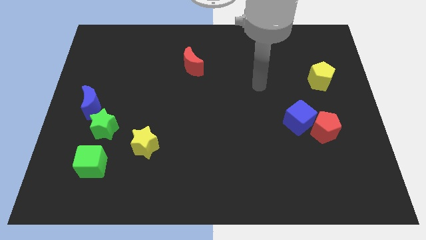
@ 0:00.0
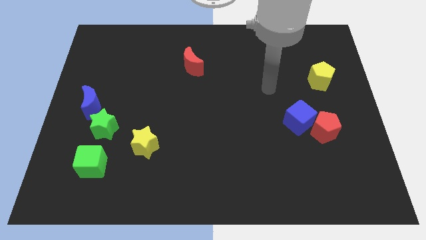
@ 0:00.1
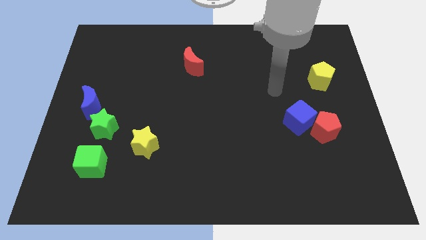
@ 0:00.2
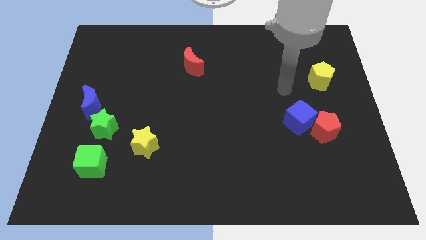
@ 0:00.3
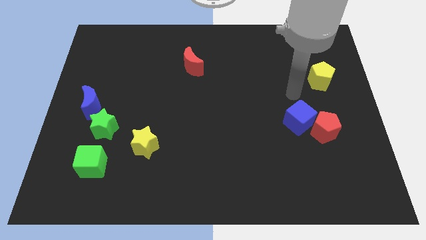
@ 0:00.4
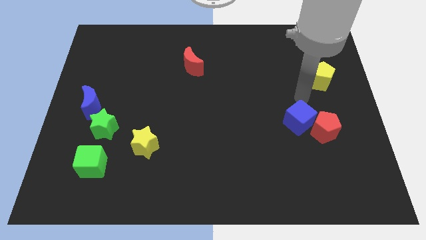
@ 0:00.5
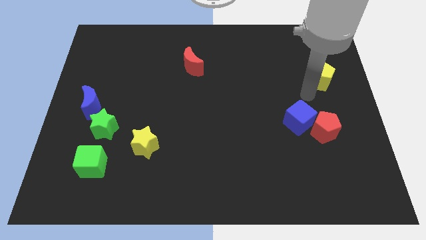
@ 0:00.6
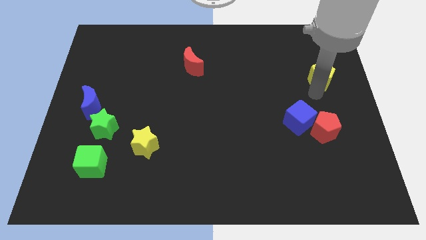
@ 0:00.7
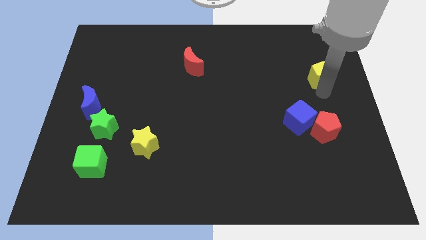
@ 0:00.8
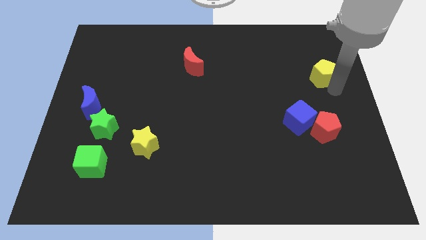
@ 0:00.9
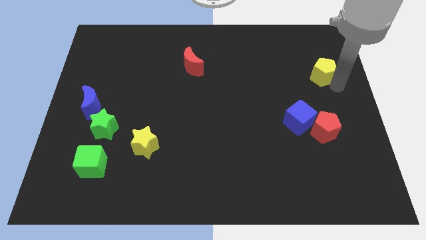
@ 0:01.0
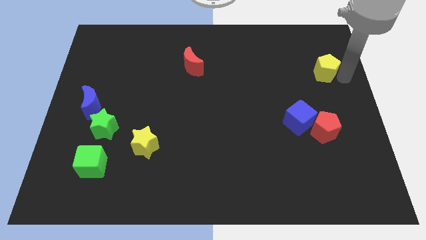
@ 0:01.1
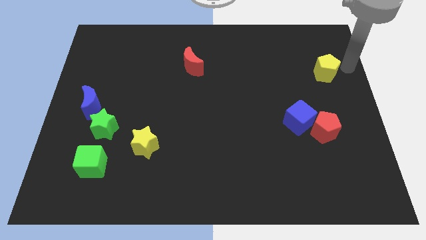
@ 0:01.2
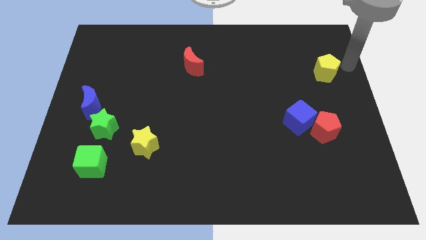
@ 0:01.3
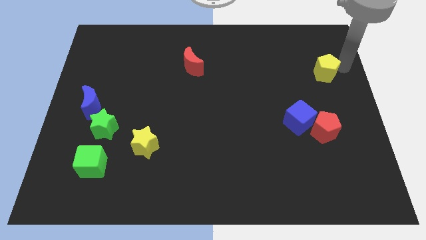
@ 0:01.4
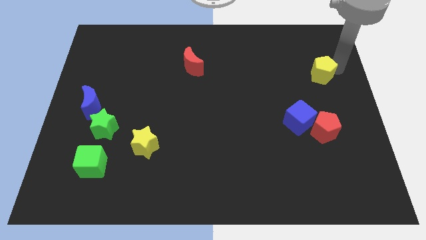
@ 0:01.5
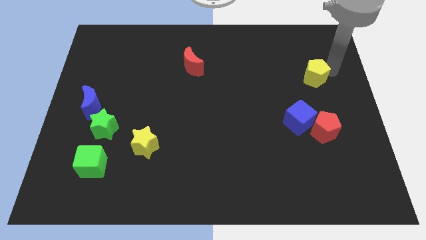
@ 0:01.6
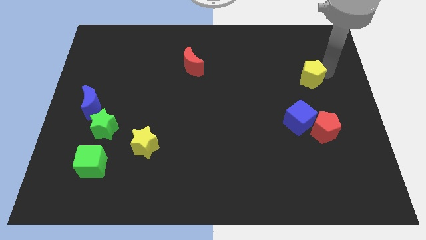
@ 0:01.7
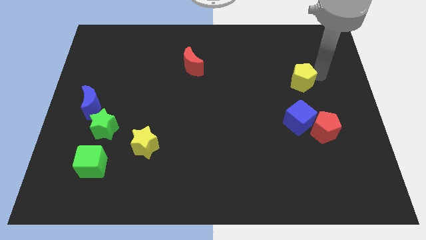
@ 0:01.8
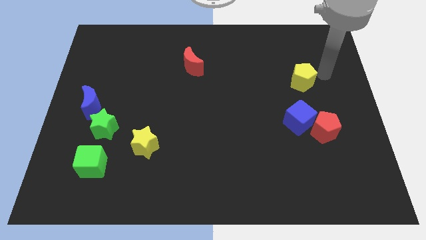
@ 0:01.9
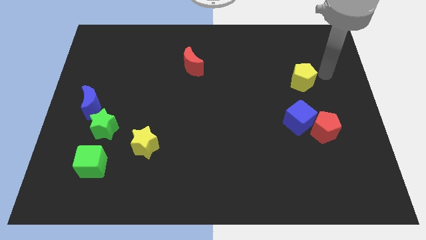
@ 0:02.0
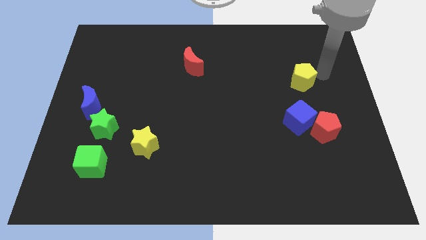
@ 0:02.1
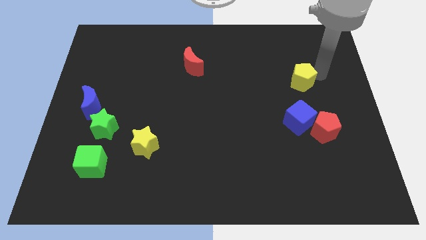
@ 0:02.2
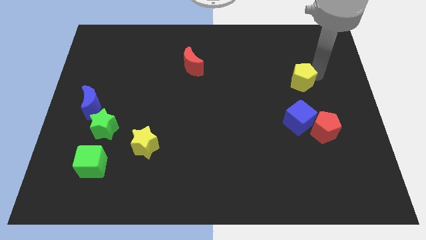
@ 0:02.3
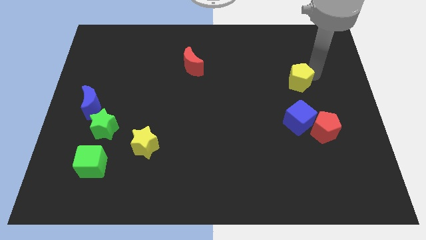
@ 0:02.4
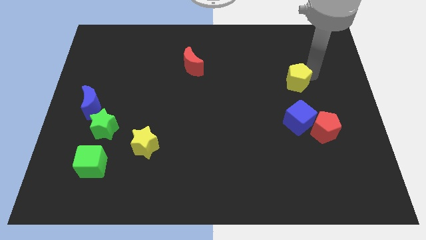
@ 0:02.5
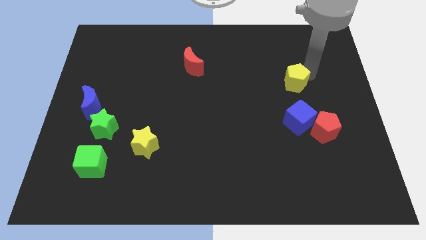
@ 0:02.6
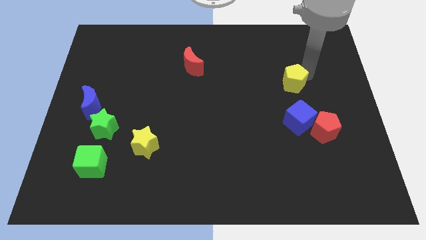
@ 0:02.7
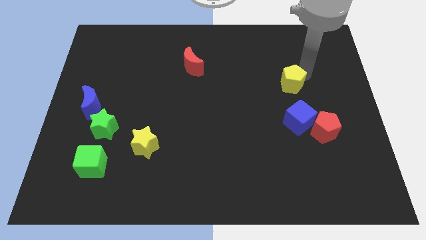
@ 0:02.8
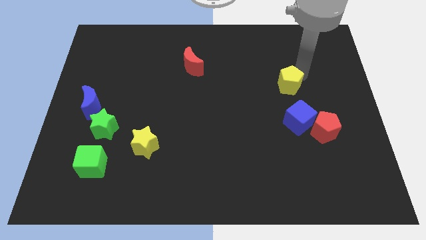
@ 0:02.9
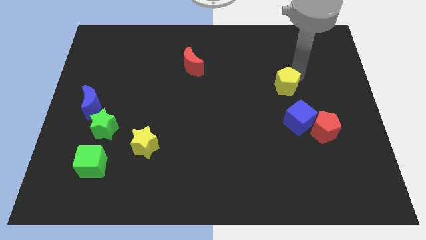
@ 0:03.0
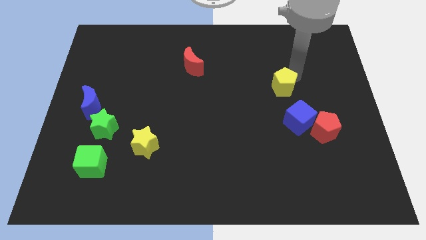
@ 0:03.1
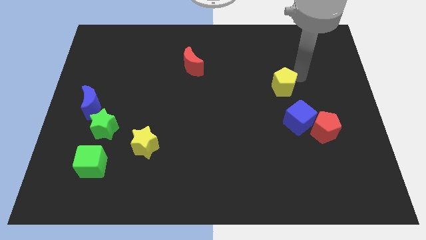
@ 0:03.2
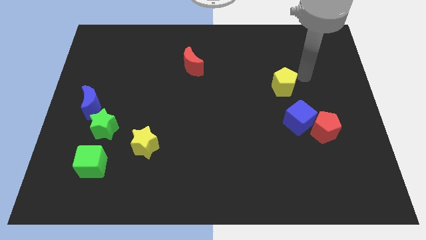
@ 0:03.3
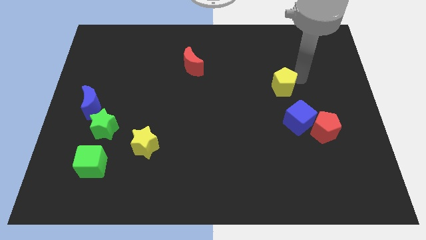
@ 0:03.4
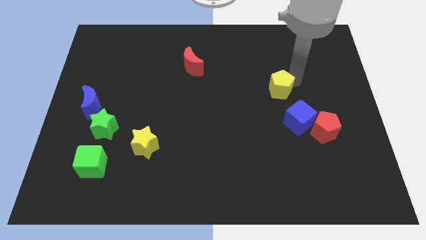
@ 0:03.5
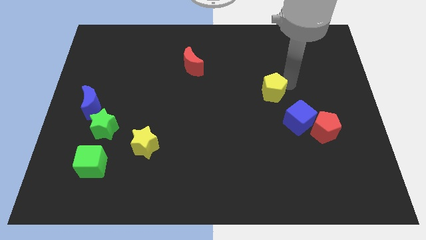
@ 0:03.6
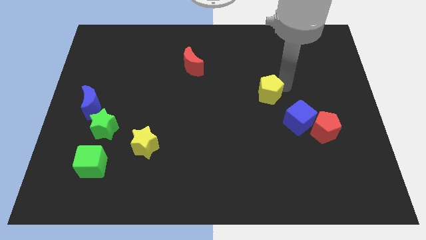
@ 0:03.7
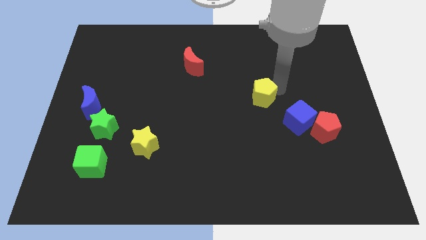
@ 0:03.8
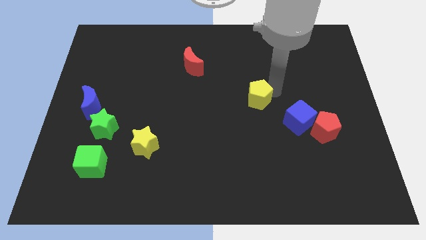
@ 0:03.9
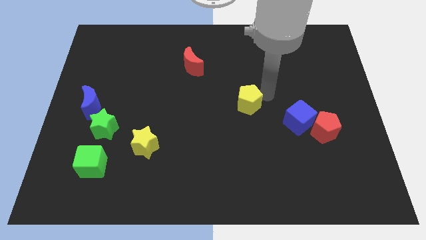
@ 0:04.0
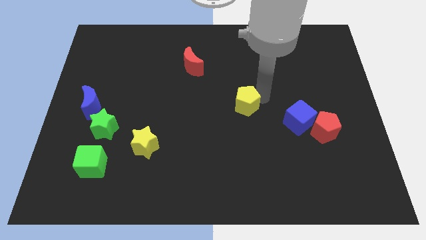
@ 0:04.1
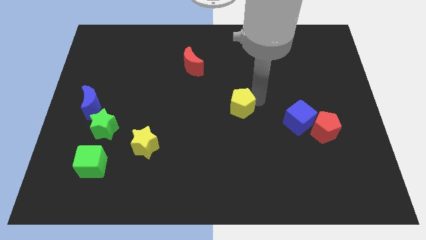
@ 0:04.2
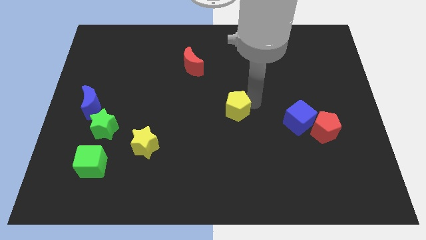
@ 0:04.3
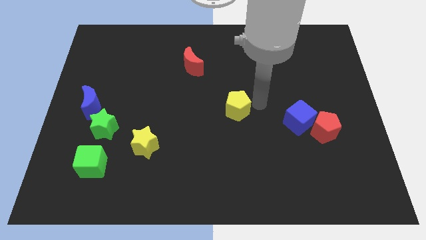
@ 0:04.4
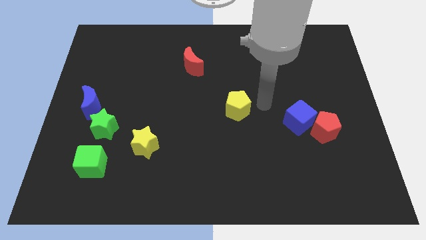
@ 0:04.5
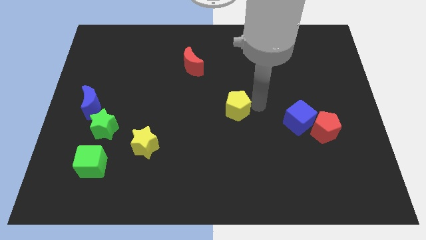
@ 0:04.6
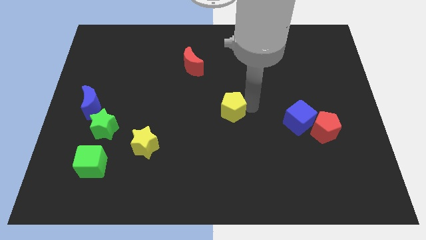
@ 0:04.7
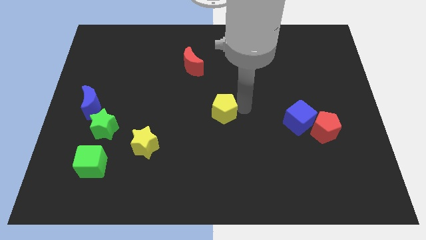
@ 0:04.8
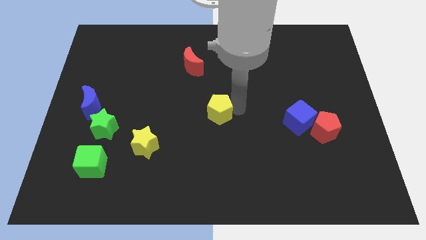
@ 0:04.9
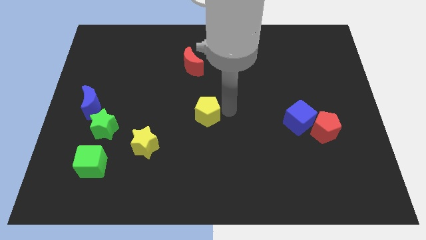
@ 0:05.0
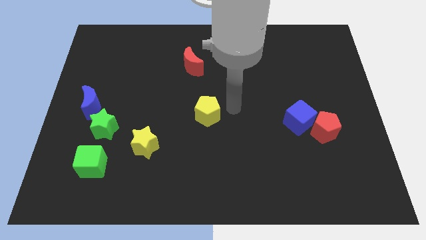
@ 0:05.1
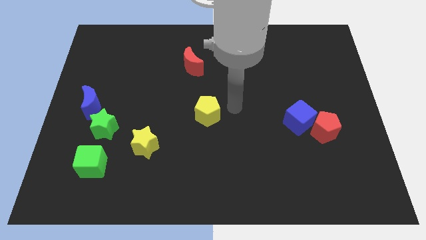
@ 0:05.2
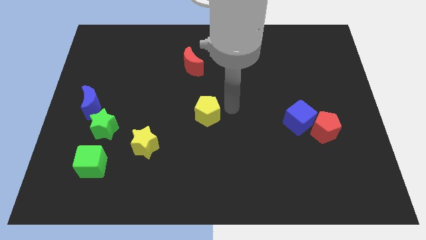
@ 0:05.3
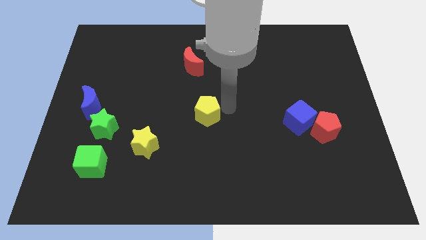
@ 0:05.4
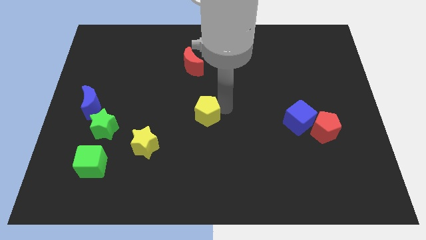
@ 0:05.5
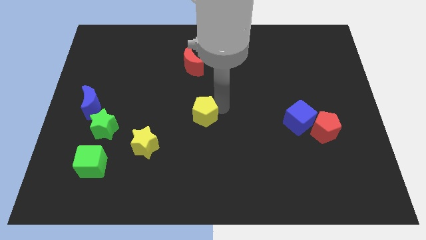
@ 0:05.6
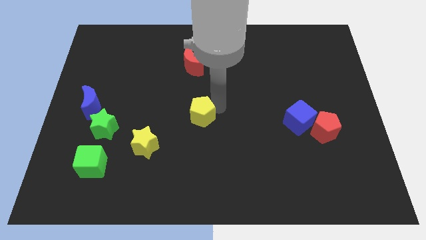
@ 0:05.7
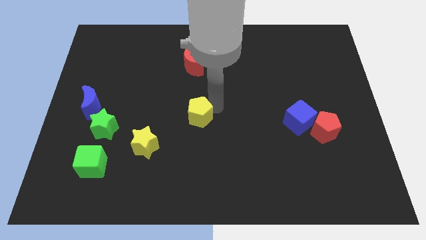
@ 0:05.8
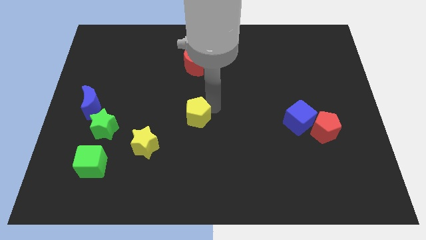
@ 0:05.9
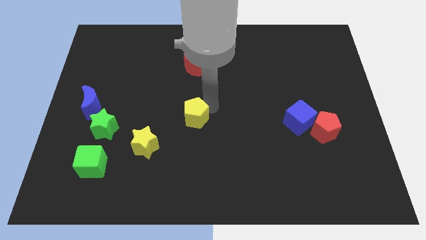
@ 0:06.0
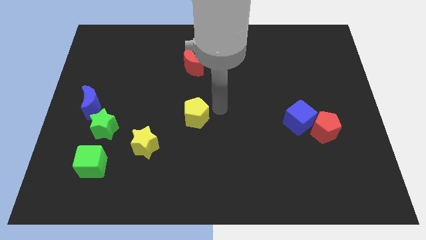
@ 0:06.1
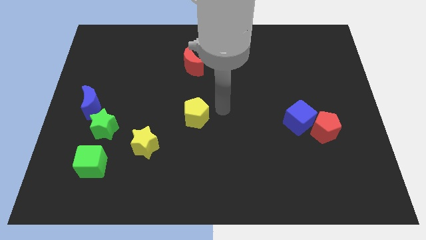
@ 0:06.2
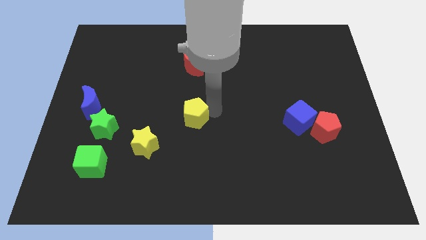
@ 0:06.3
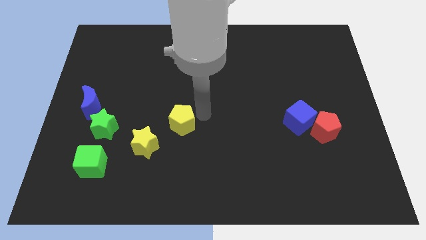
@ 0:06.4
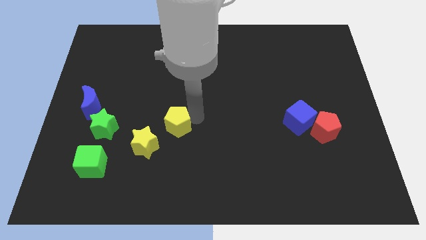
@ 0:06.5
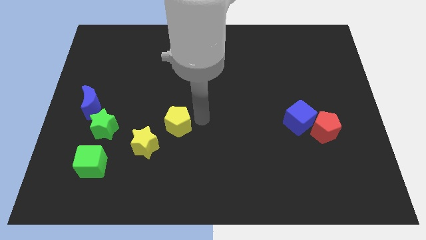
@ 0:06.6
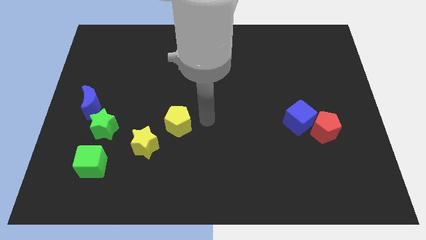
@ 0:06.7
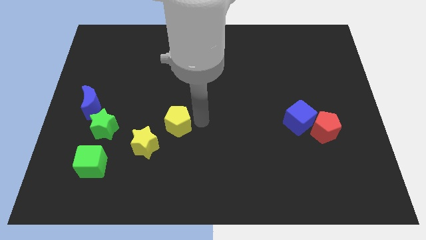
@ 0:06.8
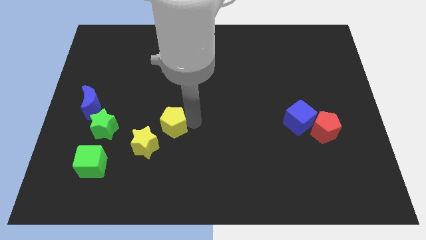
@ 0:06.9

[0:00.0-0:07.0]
push the yellow pentagon to the right of the green star

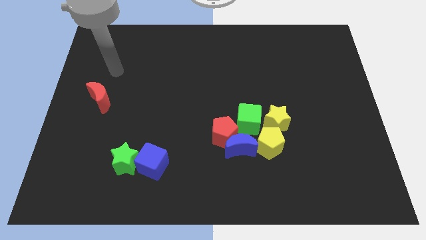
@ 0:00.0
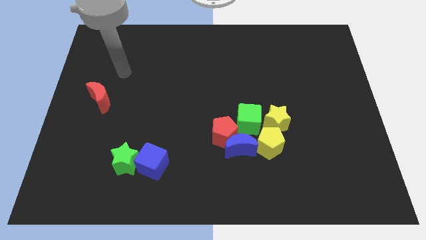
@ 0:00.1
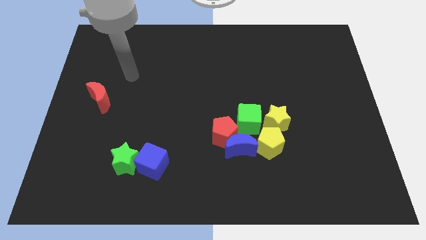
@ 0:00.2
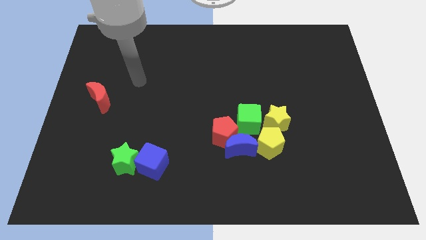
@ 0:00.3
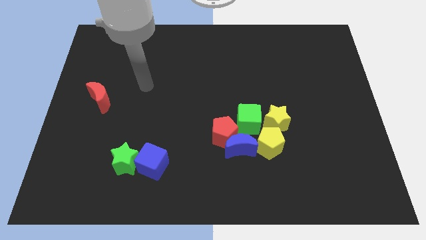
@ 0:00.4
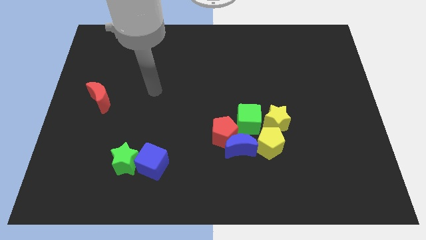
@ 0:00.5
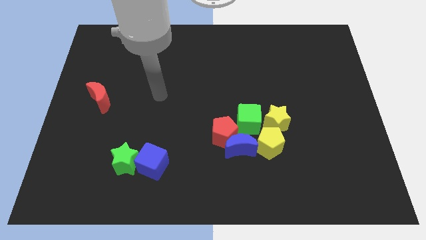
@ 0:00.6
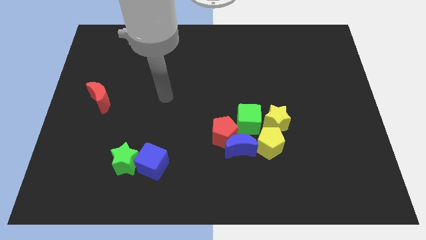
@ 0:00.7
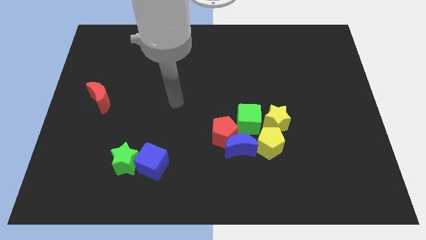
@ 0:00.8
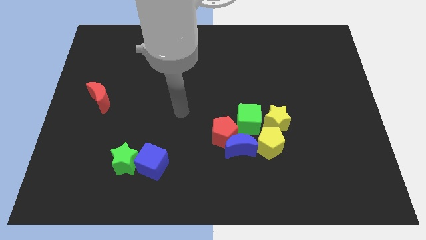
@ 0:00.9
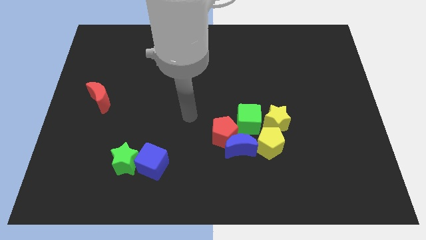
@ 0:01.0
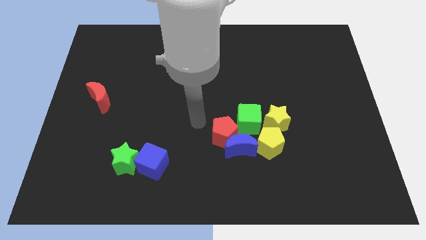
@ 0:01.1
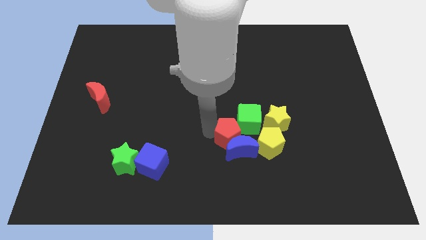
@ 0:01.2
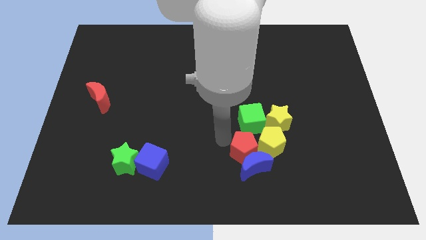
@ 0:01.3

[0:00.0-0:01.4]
push the yellow pentagon diagonally up and to the right of the red pentagon
